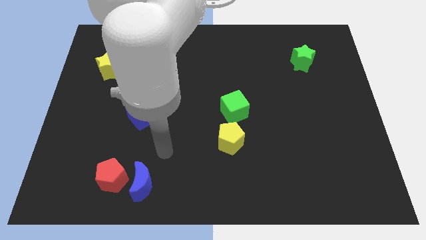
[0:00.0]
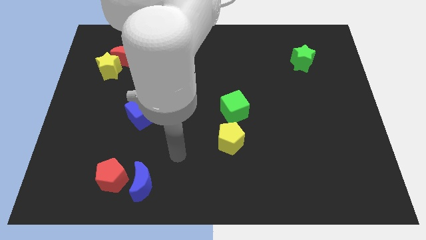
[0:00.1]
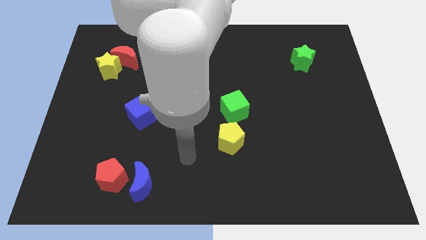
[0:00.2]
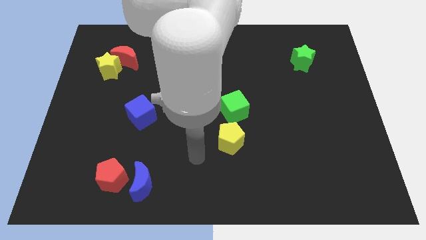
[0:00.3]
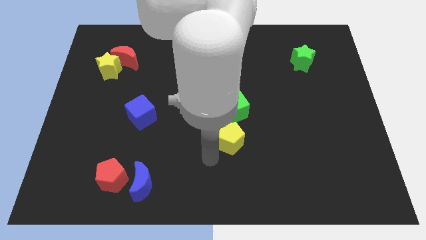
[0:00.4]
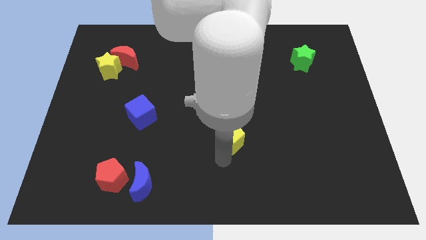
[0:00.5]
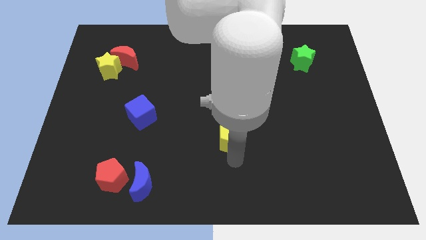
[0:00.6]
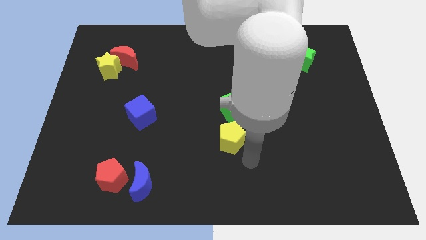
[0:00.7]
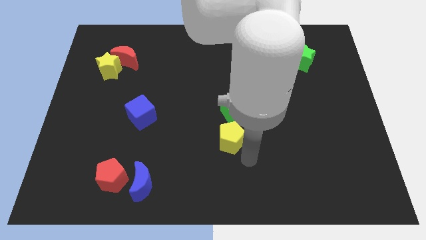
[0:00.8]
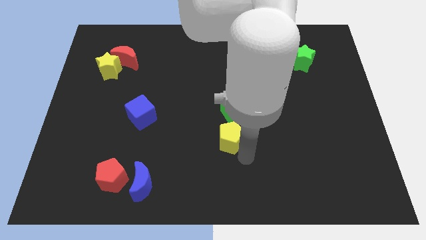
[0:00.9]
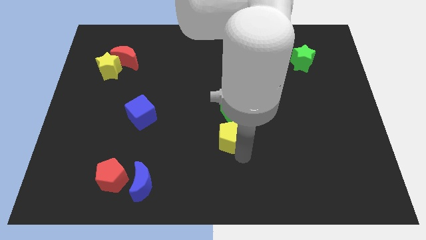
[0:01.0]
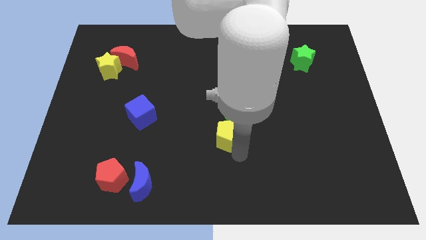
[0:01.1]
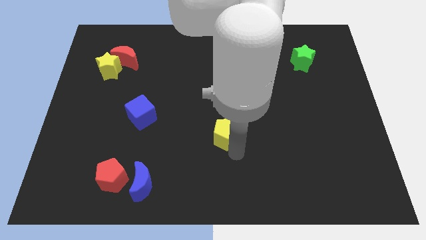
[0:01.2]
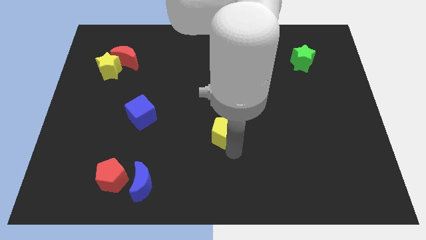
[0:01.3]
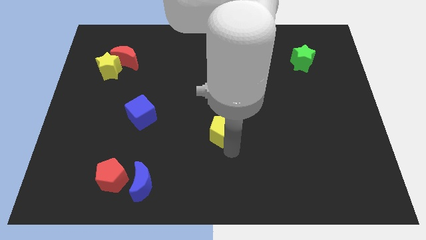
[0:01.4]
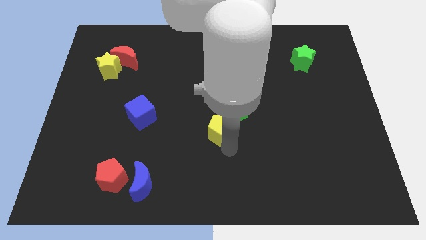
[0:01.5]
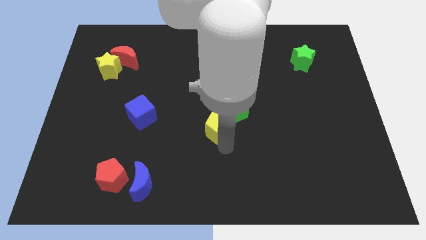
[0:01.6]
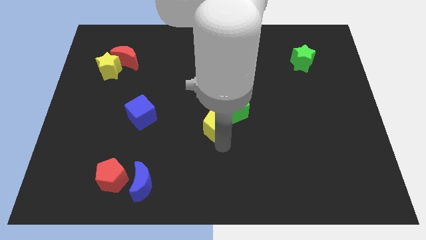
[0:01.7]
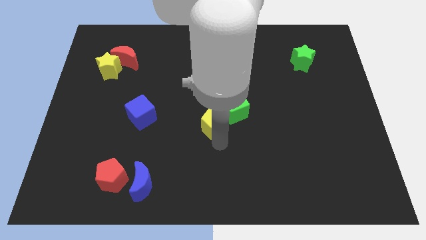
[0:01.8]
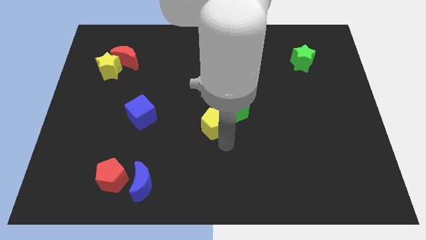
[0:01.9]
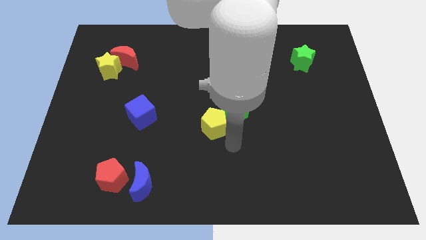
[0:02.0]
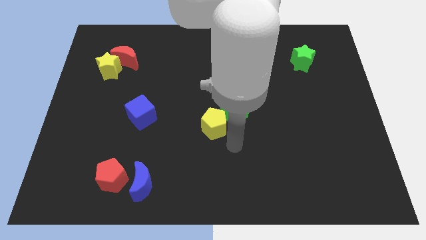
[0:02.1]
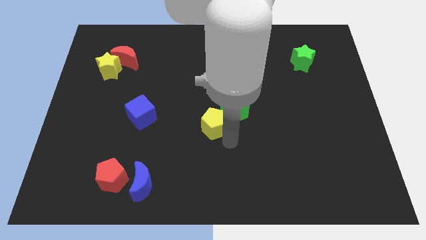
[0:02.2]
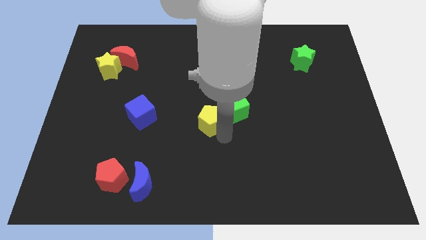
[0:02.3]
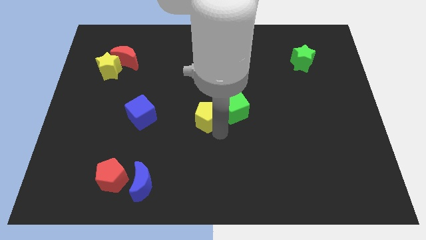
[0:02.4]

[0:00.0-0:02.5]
push the yellow pentagon somewhat up and to the left

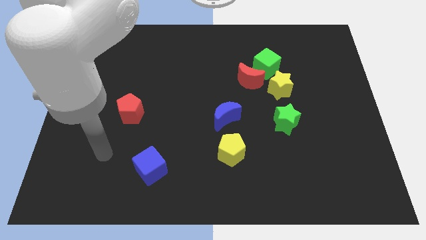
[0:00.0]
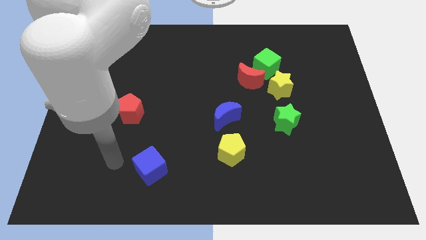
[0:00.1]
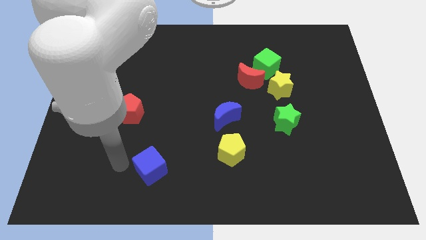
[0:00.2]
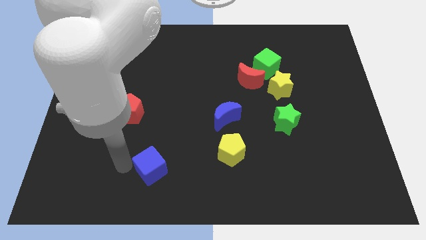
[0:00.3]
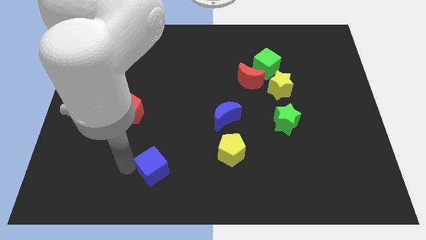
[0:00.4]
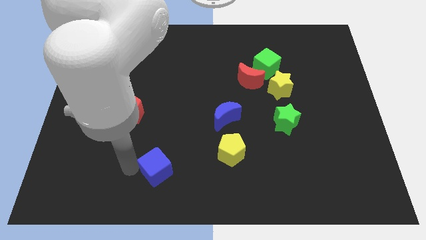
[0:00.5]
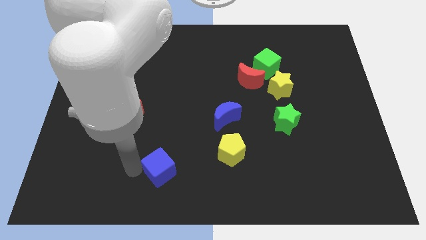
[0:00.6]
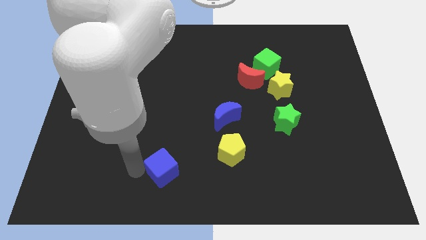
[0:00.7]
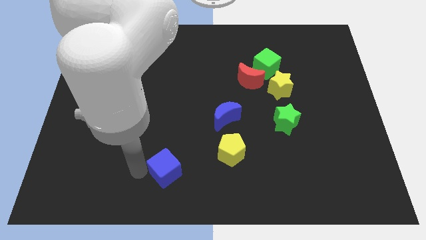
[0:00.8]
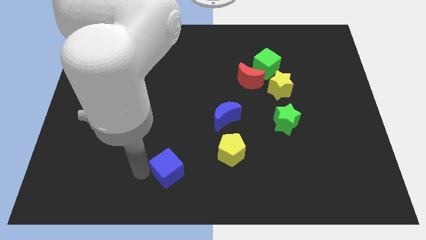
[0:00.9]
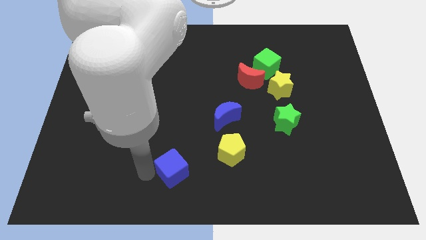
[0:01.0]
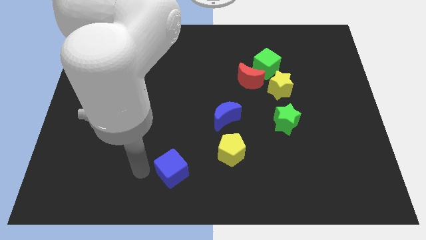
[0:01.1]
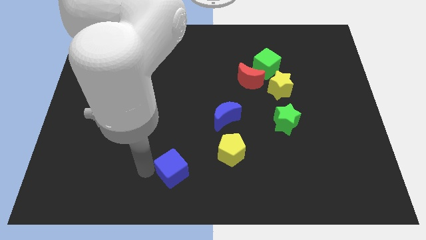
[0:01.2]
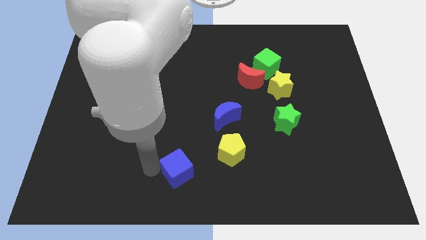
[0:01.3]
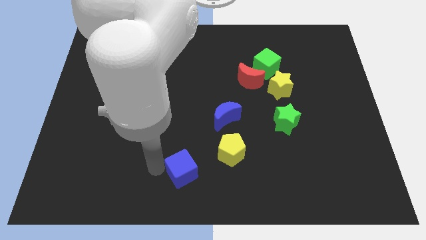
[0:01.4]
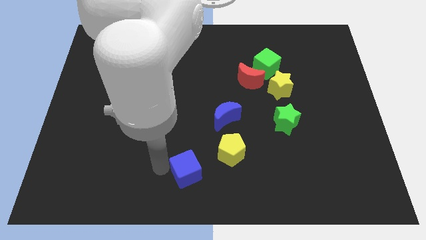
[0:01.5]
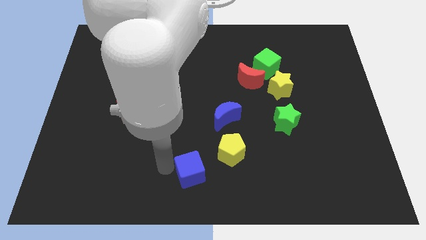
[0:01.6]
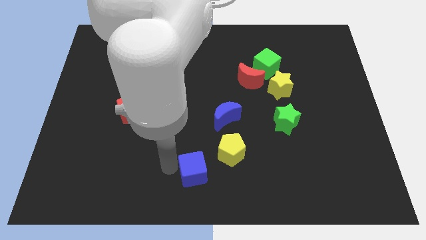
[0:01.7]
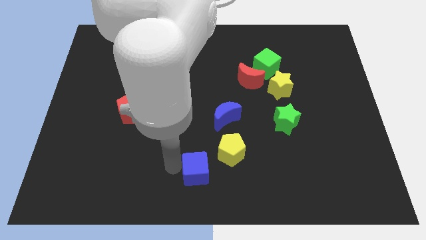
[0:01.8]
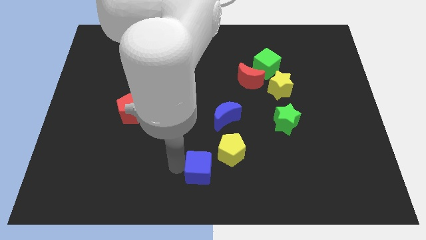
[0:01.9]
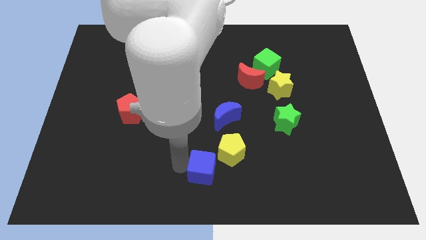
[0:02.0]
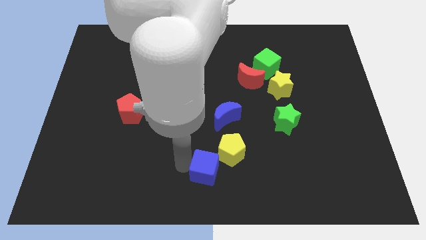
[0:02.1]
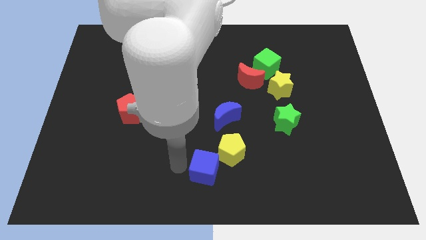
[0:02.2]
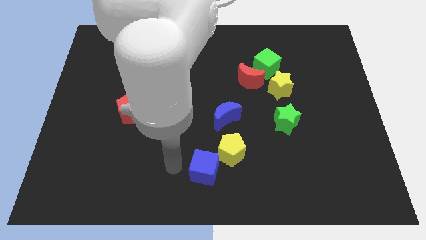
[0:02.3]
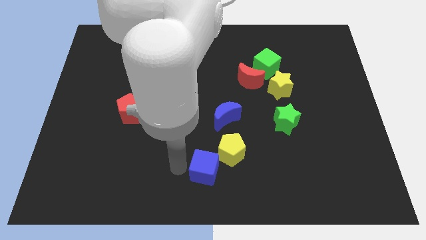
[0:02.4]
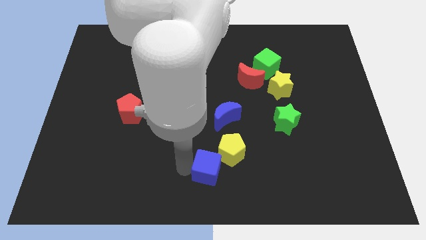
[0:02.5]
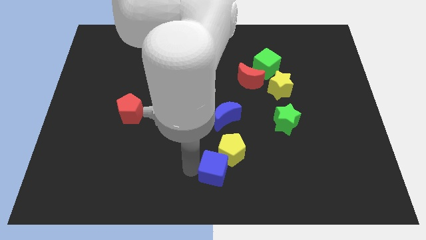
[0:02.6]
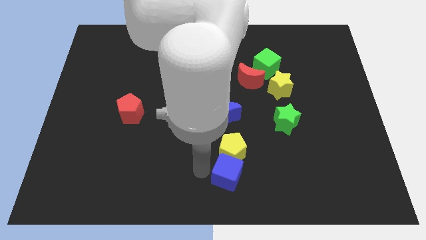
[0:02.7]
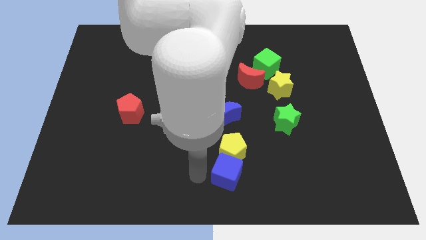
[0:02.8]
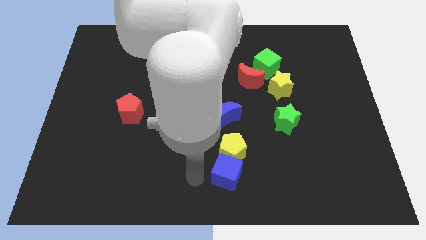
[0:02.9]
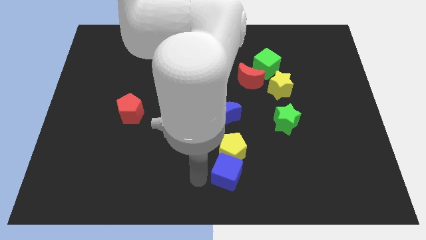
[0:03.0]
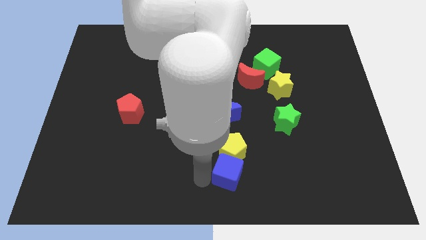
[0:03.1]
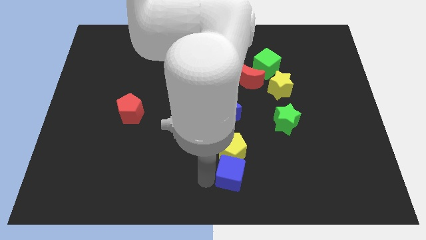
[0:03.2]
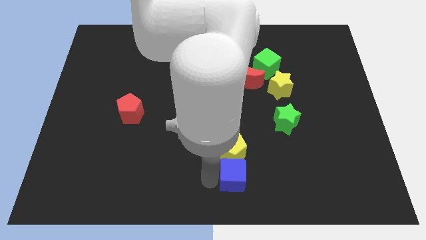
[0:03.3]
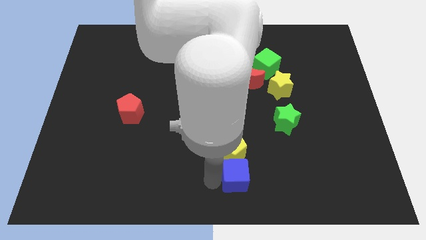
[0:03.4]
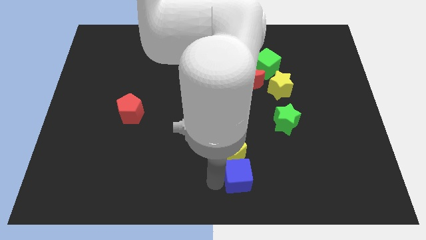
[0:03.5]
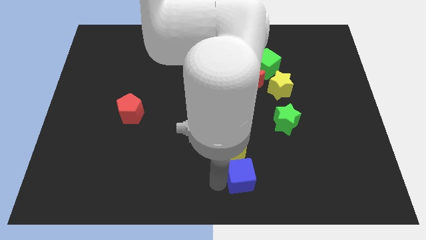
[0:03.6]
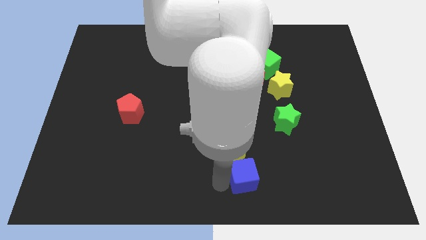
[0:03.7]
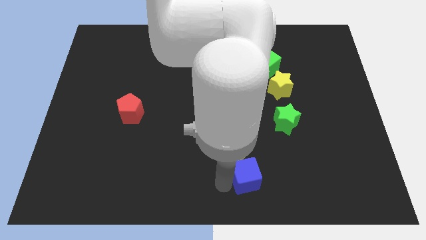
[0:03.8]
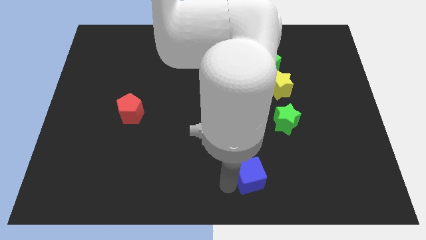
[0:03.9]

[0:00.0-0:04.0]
move the blue cube right

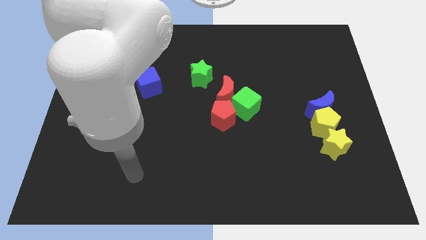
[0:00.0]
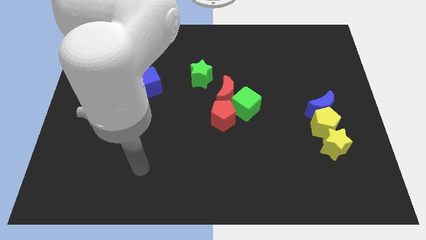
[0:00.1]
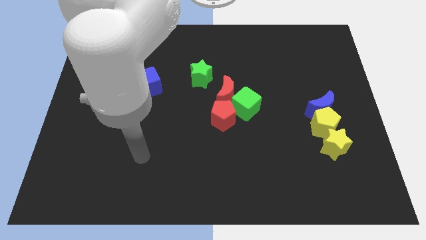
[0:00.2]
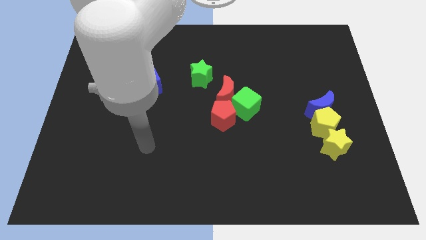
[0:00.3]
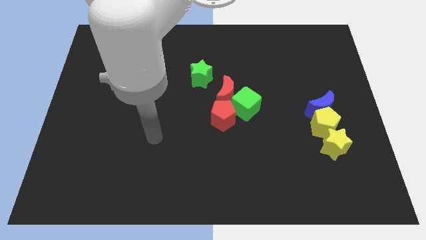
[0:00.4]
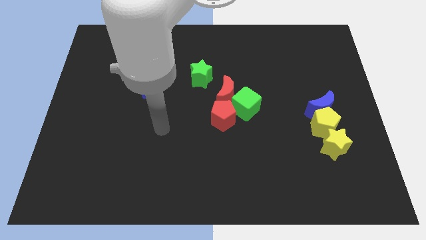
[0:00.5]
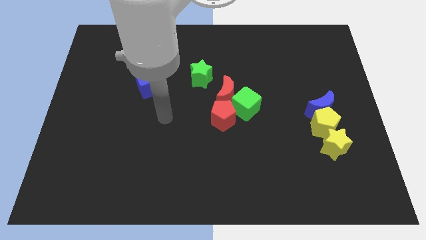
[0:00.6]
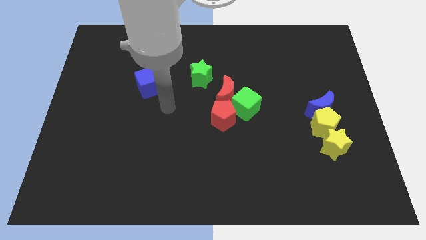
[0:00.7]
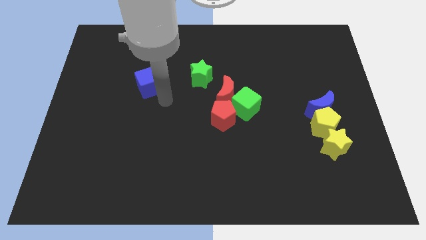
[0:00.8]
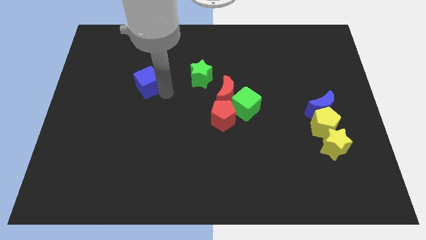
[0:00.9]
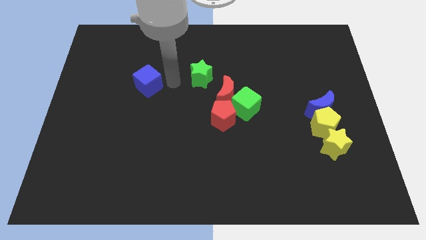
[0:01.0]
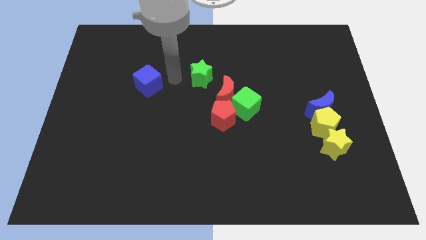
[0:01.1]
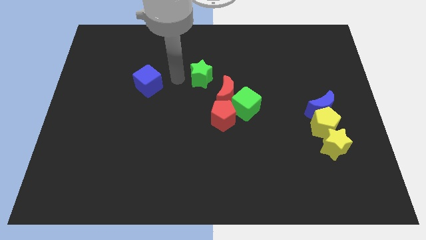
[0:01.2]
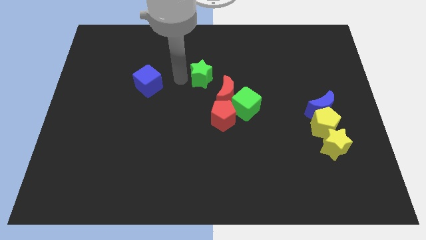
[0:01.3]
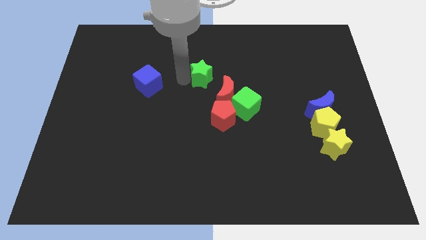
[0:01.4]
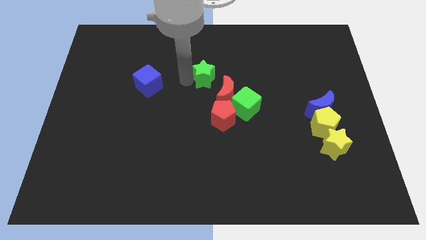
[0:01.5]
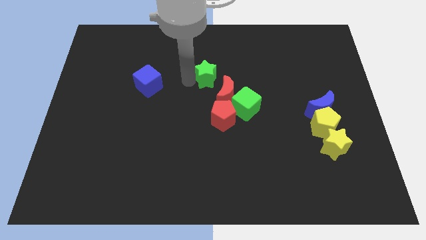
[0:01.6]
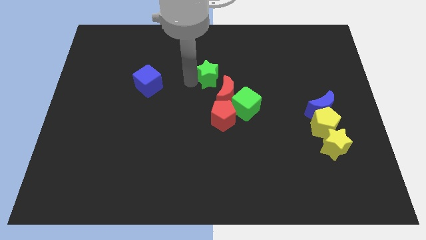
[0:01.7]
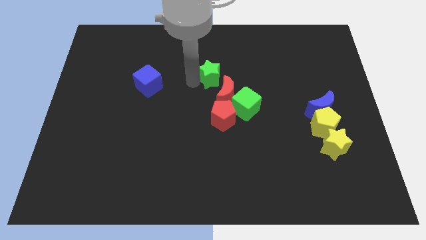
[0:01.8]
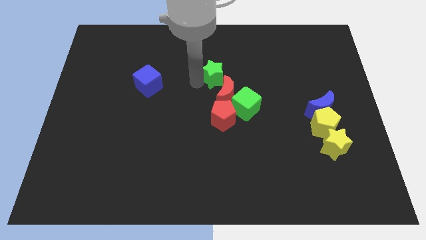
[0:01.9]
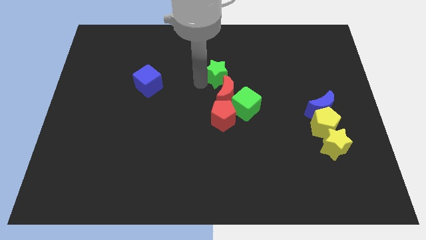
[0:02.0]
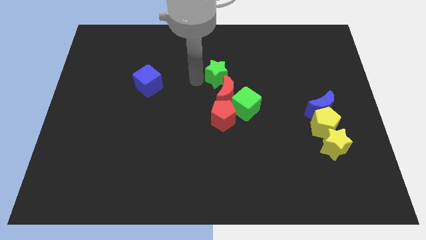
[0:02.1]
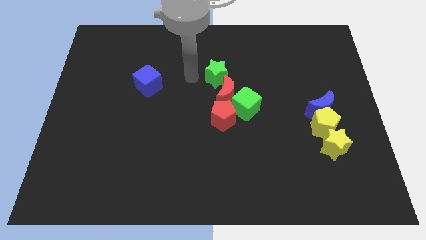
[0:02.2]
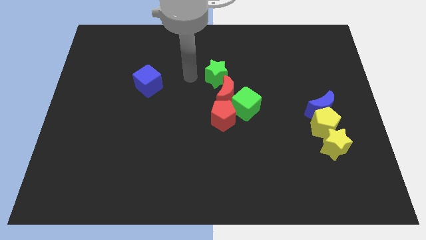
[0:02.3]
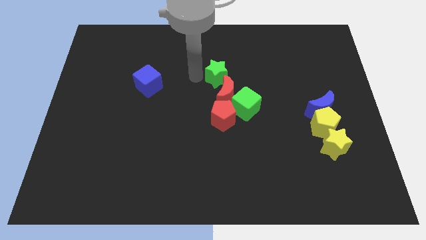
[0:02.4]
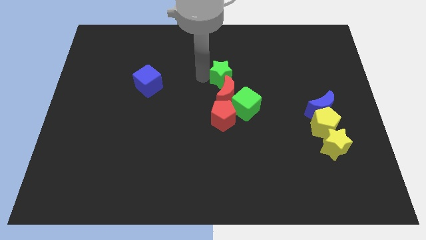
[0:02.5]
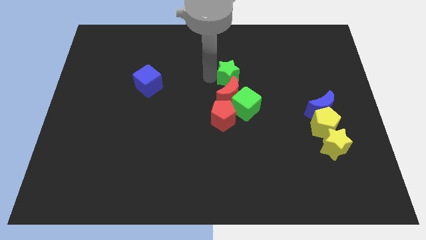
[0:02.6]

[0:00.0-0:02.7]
slide the green star a bit to the right
